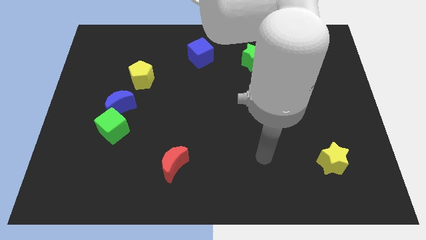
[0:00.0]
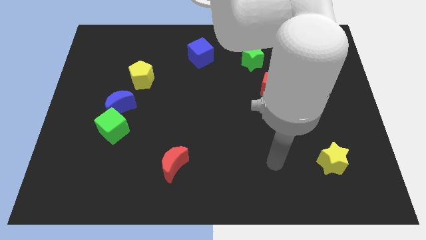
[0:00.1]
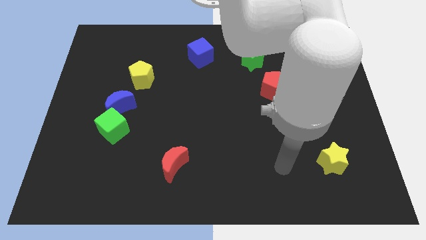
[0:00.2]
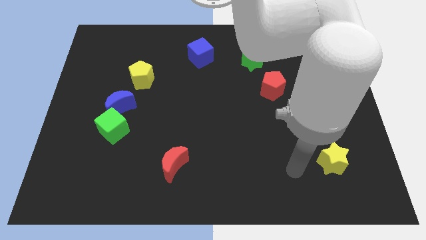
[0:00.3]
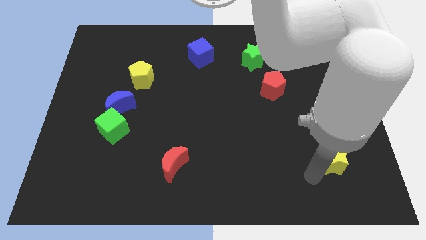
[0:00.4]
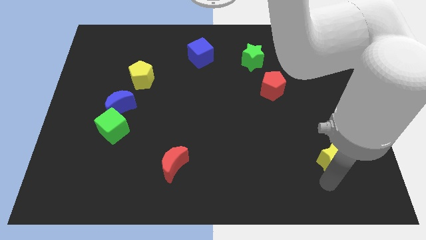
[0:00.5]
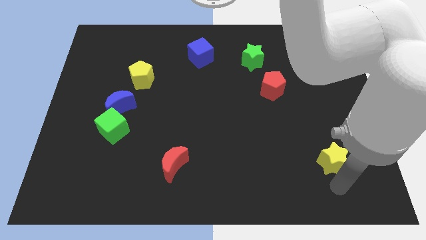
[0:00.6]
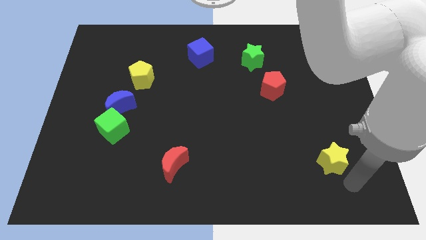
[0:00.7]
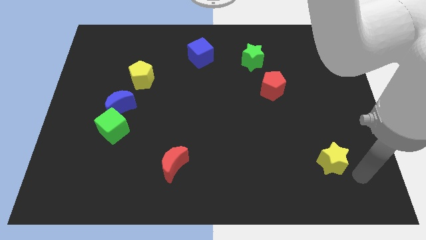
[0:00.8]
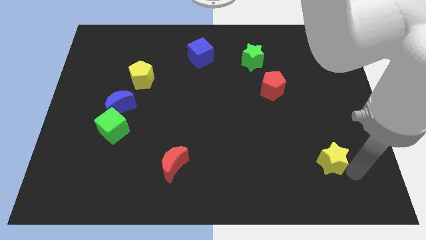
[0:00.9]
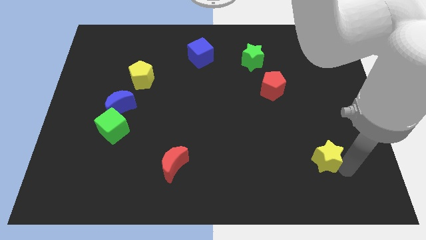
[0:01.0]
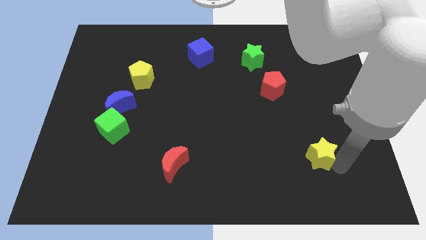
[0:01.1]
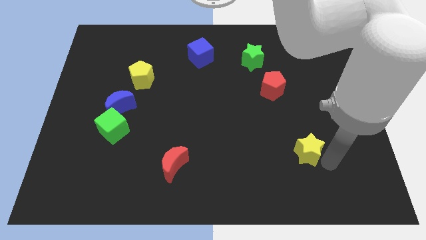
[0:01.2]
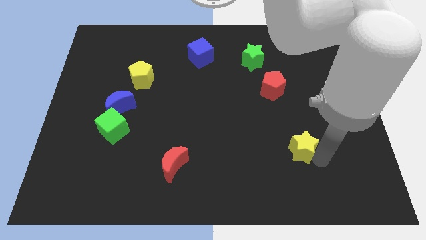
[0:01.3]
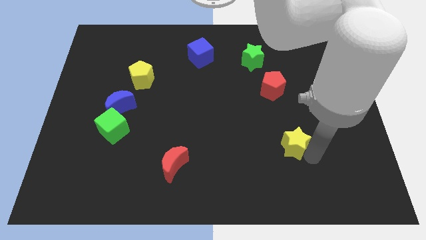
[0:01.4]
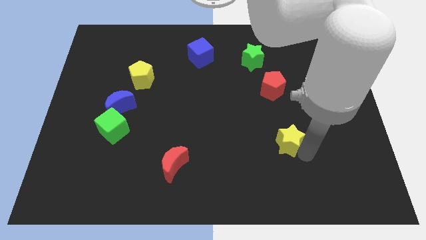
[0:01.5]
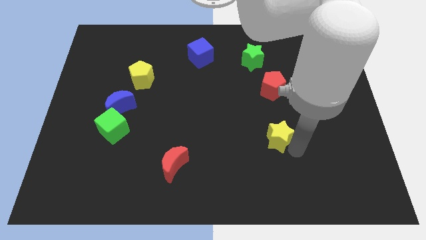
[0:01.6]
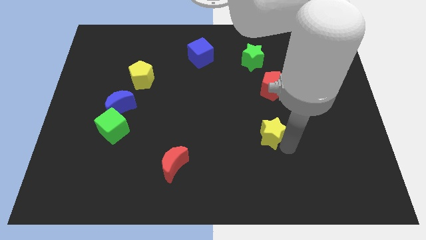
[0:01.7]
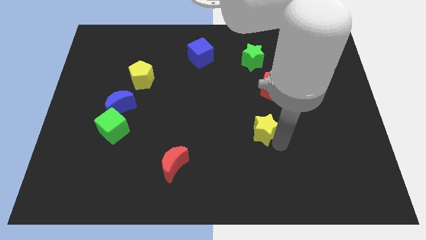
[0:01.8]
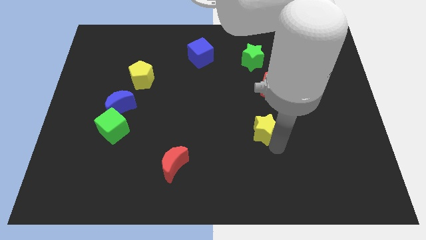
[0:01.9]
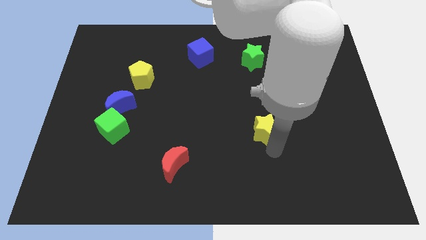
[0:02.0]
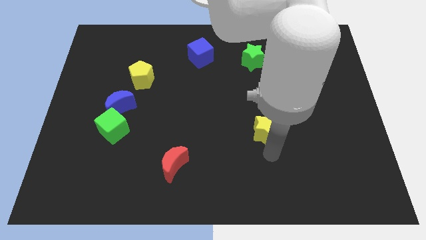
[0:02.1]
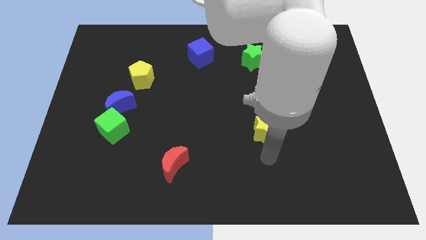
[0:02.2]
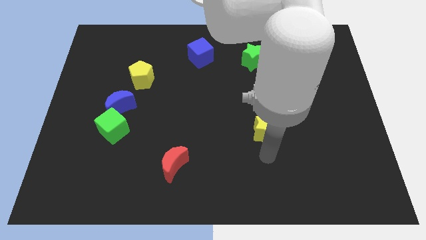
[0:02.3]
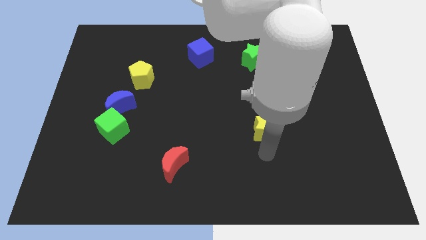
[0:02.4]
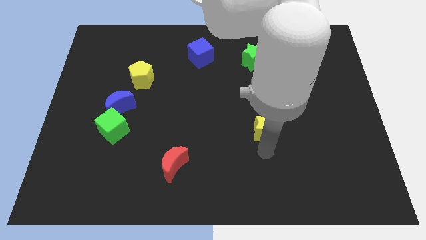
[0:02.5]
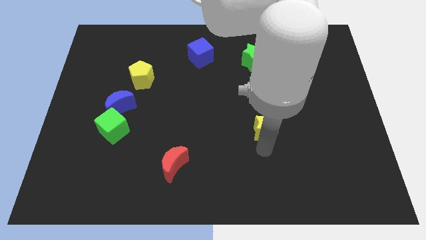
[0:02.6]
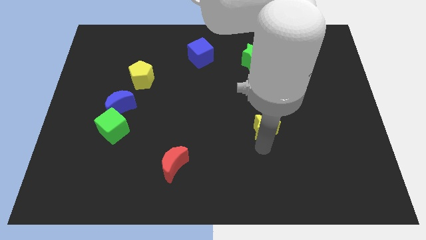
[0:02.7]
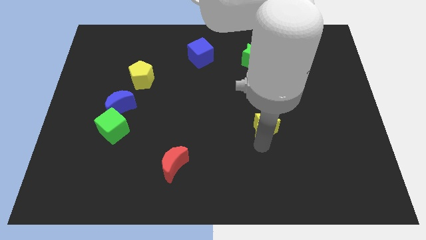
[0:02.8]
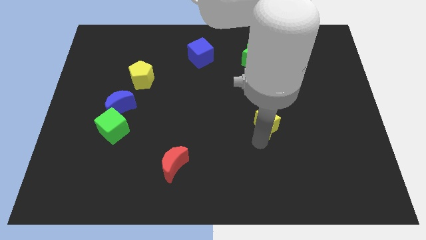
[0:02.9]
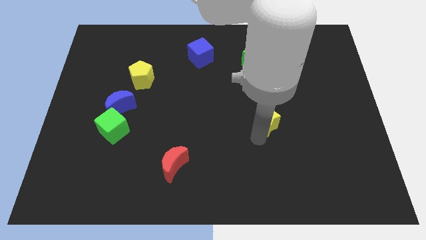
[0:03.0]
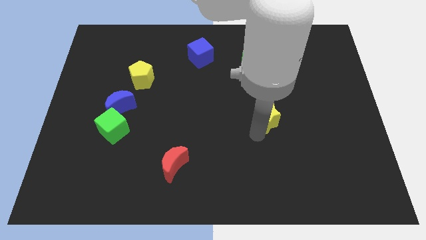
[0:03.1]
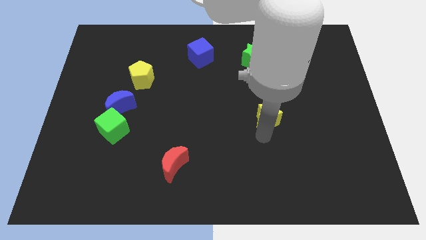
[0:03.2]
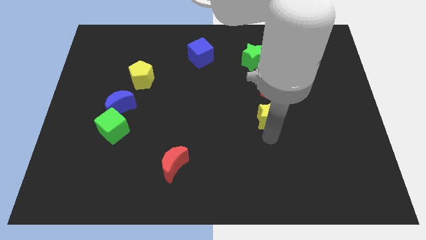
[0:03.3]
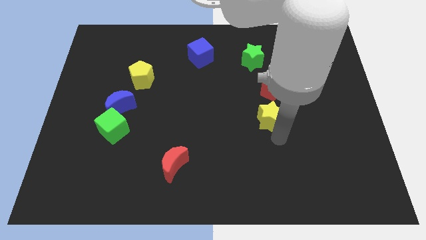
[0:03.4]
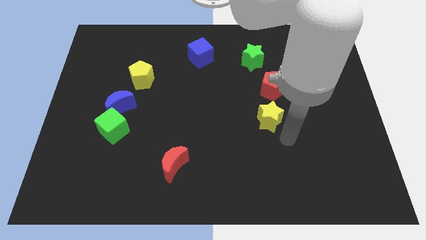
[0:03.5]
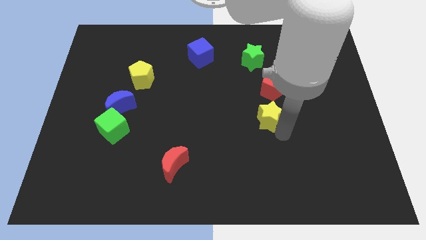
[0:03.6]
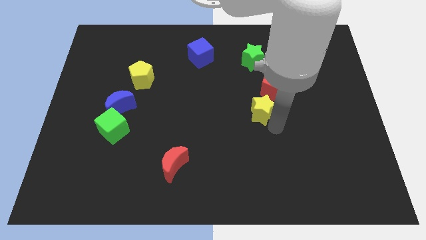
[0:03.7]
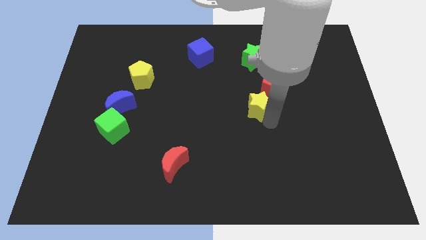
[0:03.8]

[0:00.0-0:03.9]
push the yellow star upwards and to the left

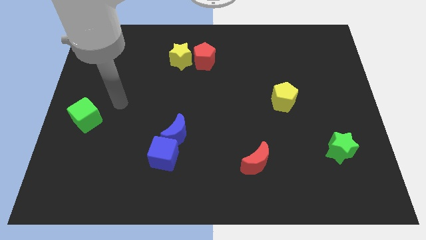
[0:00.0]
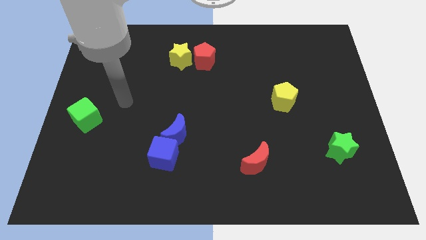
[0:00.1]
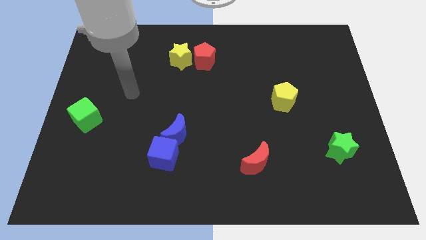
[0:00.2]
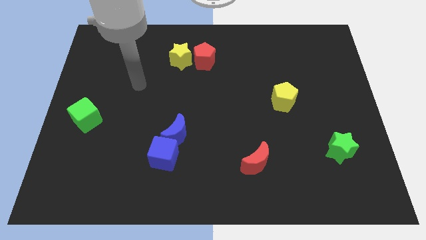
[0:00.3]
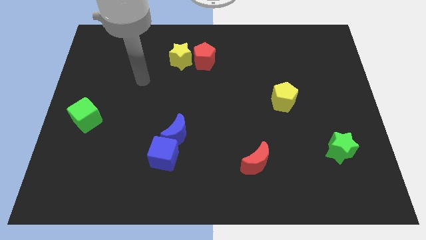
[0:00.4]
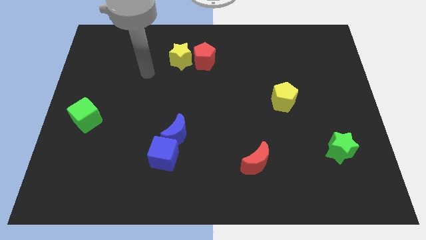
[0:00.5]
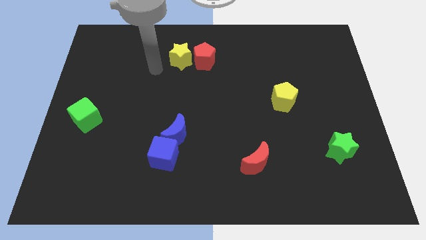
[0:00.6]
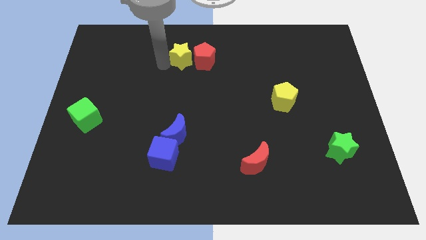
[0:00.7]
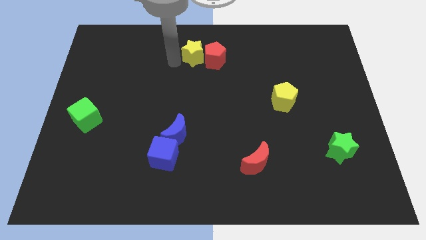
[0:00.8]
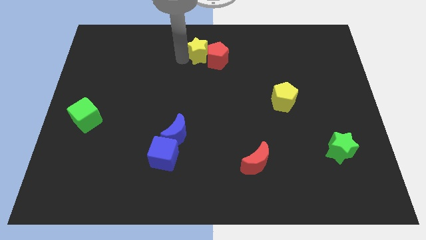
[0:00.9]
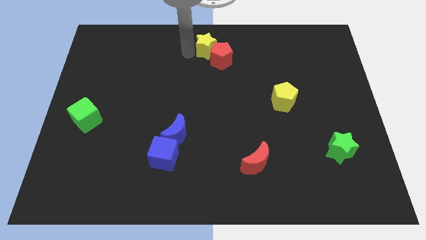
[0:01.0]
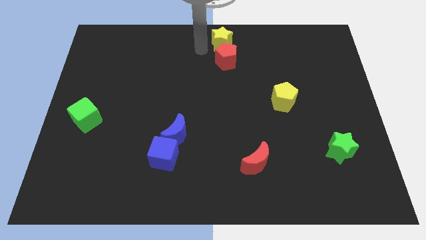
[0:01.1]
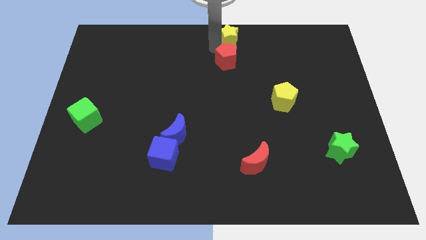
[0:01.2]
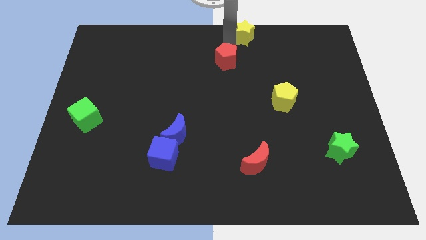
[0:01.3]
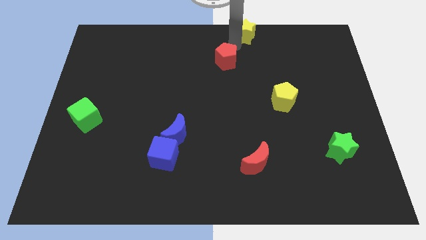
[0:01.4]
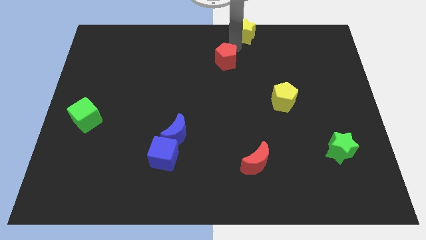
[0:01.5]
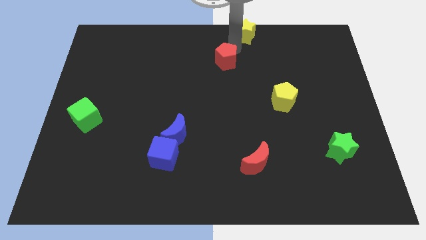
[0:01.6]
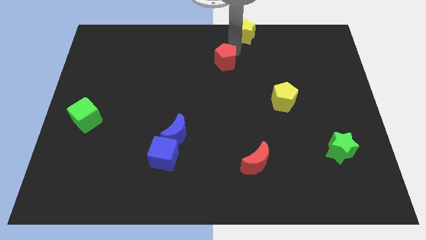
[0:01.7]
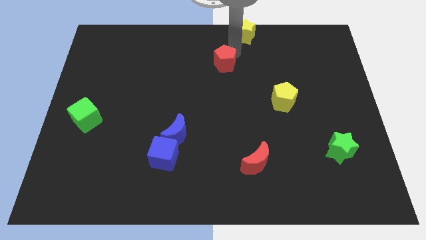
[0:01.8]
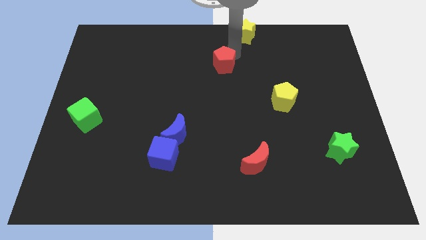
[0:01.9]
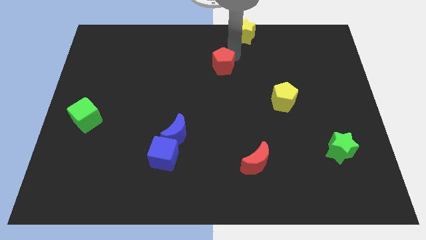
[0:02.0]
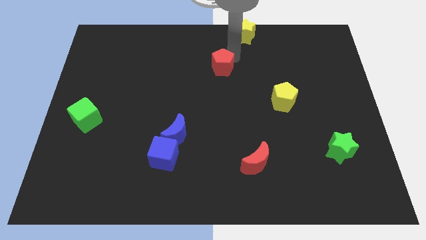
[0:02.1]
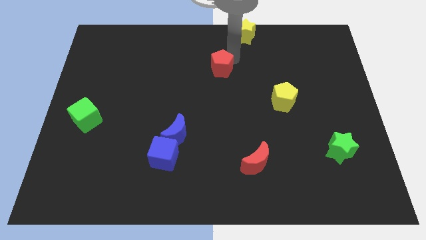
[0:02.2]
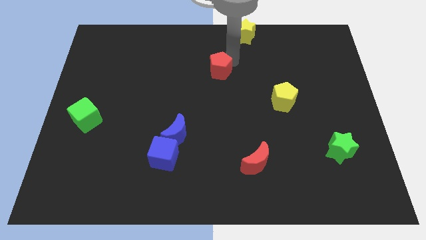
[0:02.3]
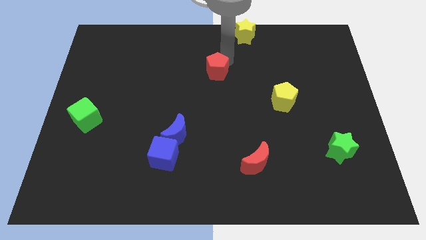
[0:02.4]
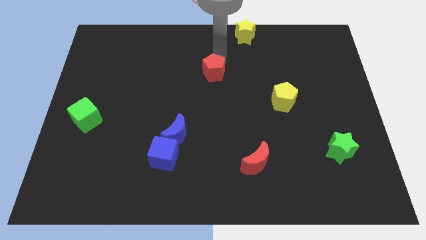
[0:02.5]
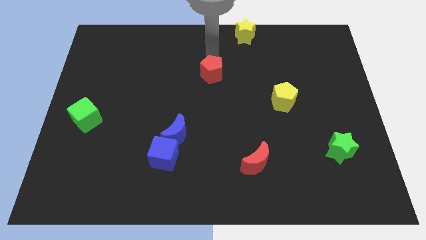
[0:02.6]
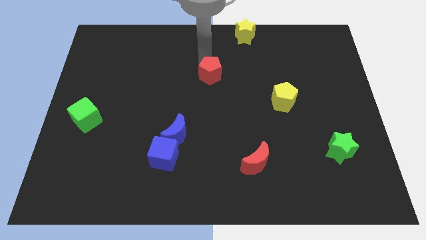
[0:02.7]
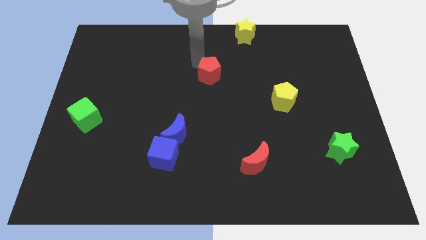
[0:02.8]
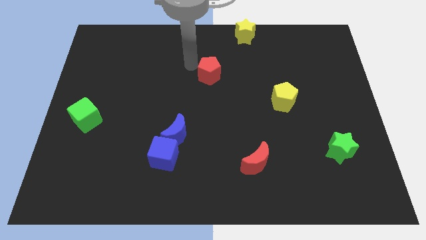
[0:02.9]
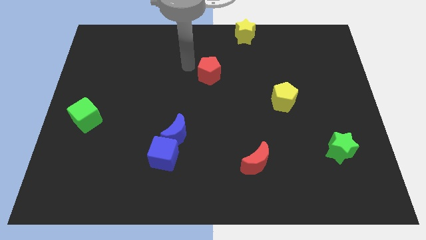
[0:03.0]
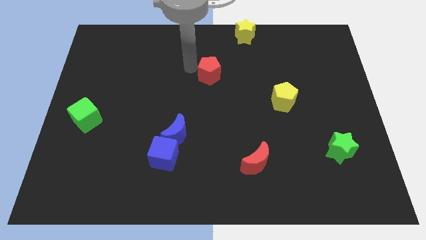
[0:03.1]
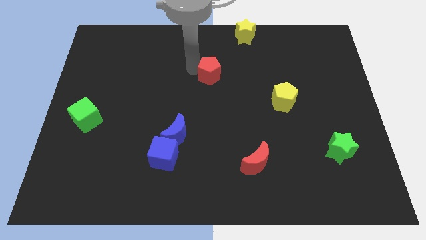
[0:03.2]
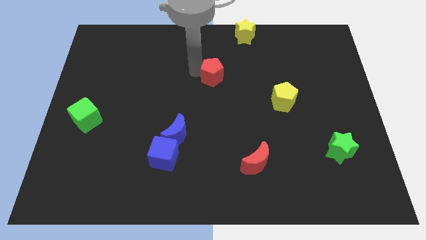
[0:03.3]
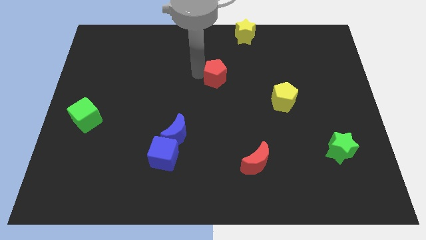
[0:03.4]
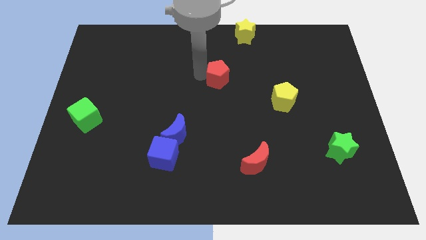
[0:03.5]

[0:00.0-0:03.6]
push the red pentagon slightly diagonally down and to the right

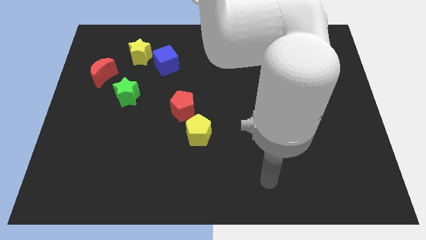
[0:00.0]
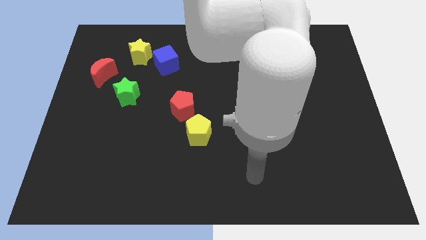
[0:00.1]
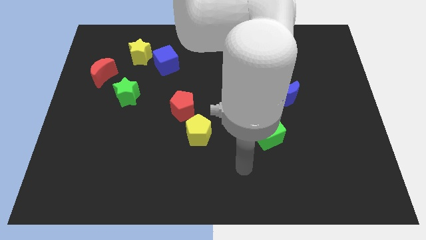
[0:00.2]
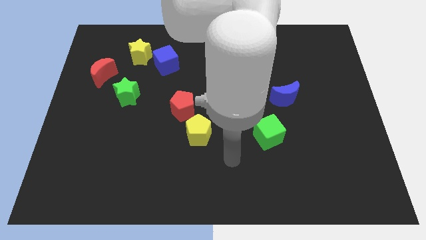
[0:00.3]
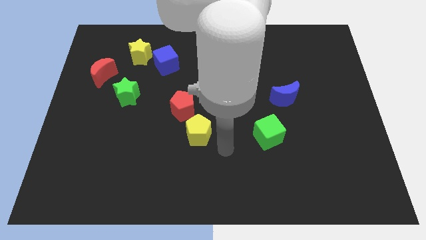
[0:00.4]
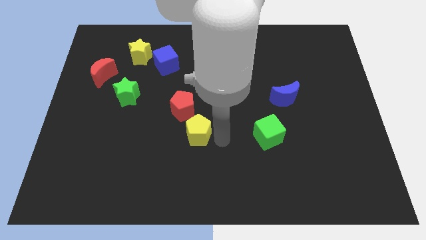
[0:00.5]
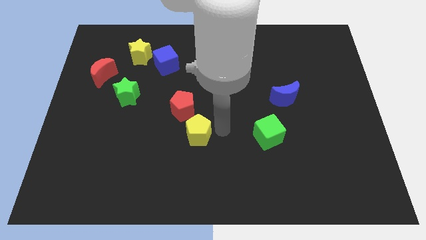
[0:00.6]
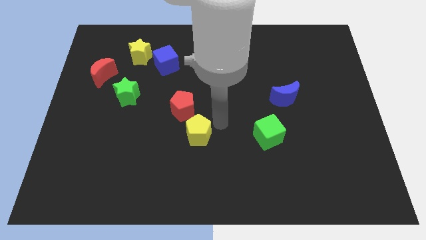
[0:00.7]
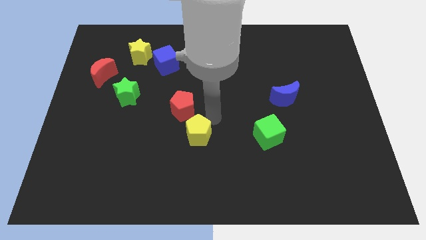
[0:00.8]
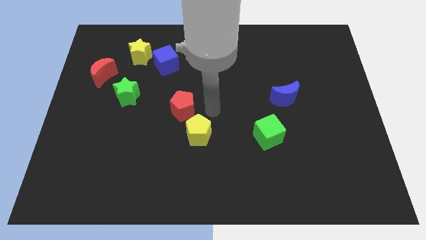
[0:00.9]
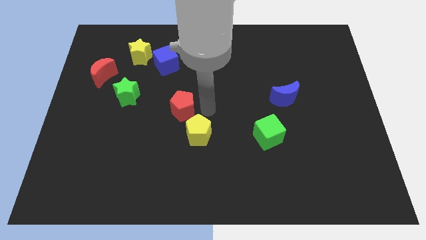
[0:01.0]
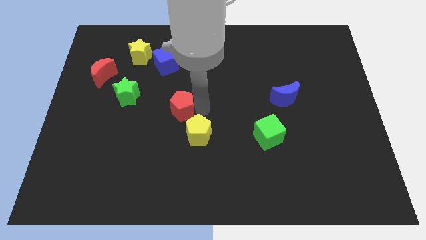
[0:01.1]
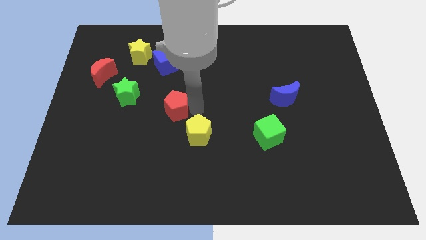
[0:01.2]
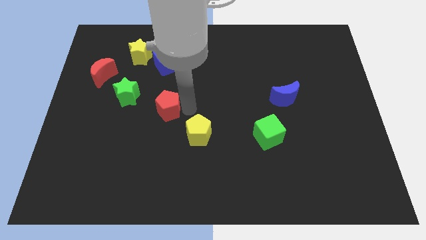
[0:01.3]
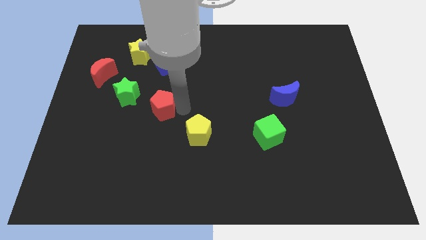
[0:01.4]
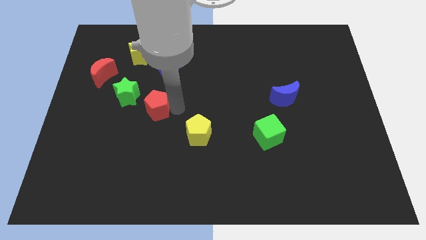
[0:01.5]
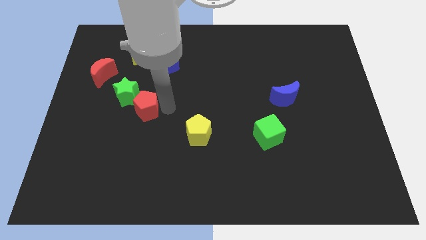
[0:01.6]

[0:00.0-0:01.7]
slightly push the red pentagon left
